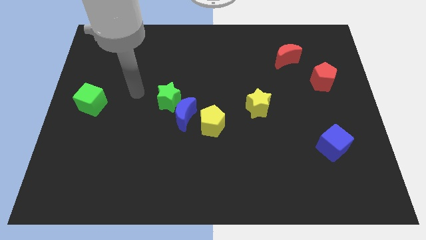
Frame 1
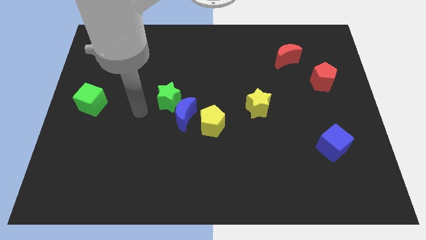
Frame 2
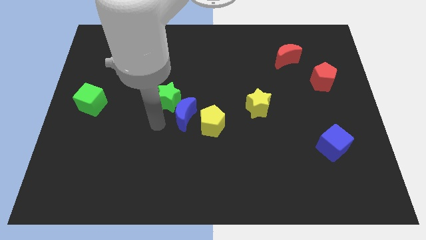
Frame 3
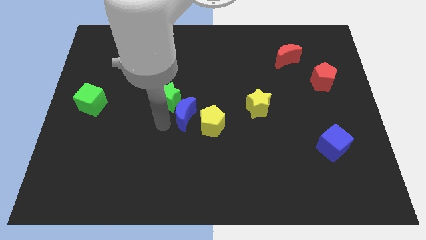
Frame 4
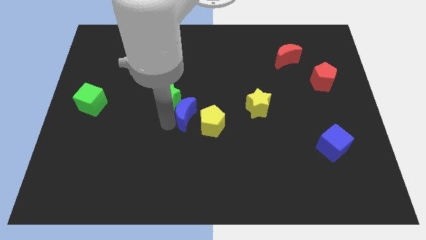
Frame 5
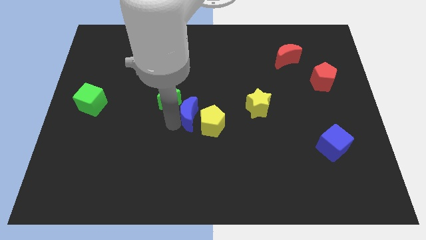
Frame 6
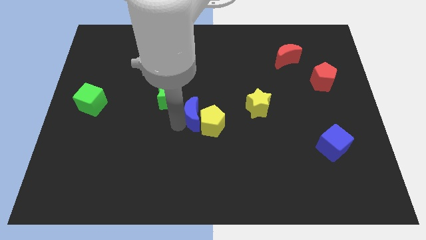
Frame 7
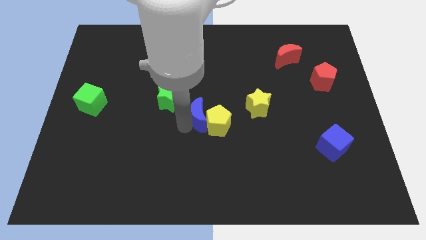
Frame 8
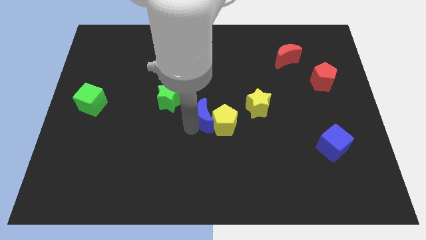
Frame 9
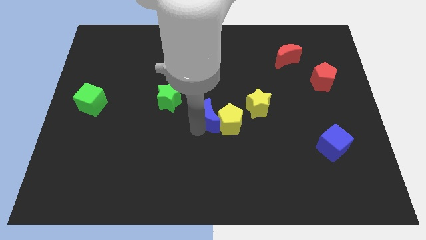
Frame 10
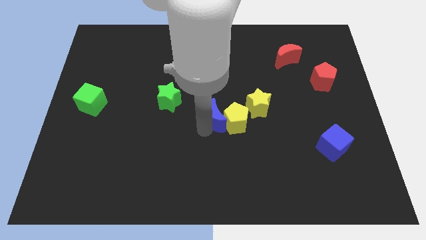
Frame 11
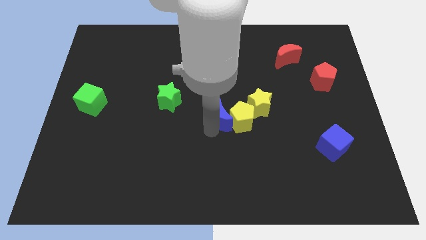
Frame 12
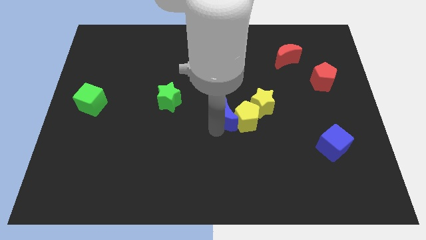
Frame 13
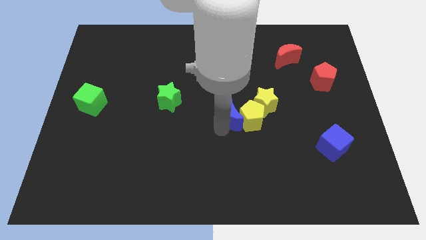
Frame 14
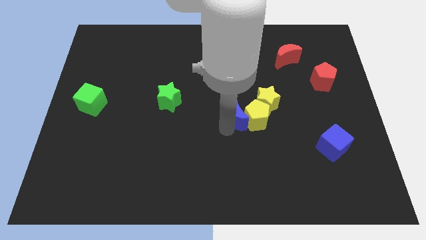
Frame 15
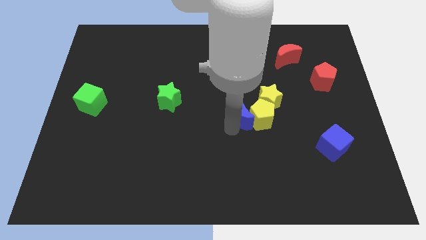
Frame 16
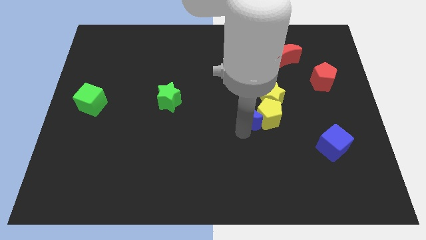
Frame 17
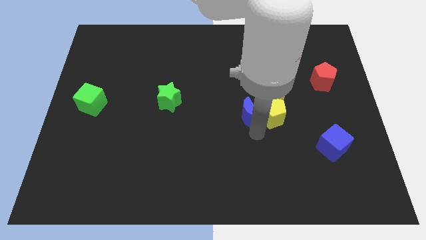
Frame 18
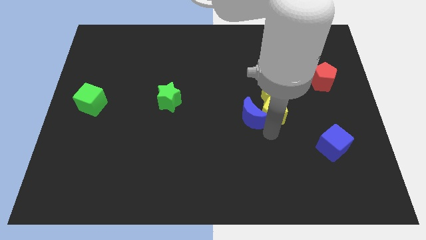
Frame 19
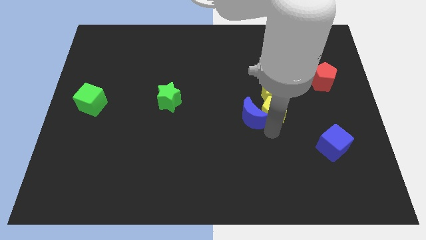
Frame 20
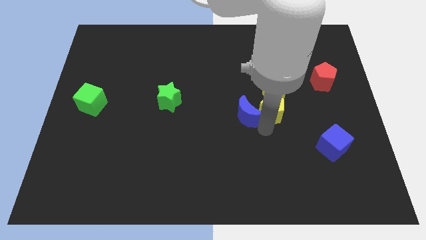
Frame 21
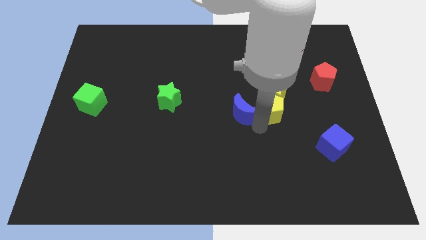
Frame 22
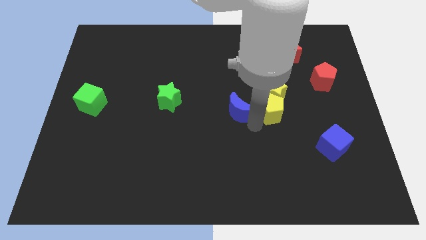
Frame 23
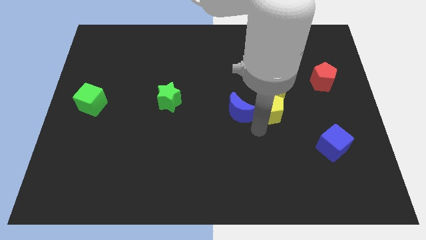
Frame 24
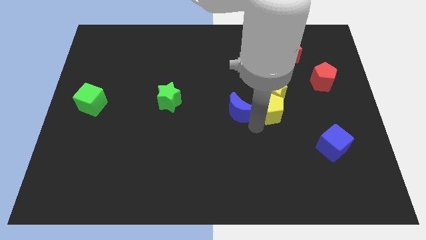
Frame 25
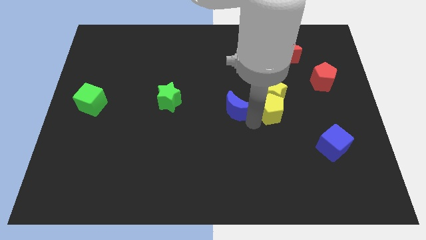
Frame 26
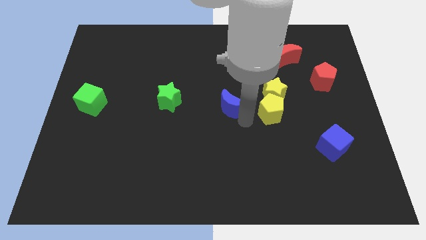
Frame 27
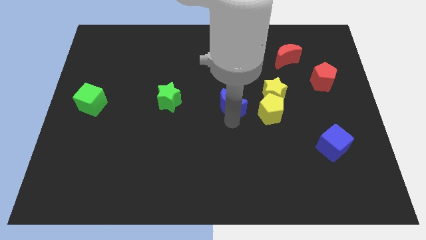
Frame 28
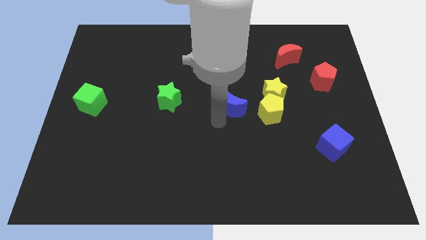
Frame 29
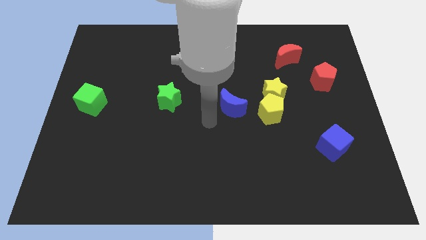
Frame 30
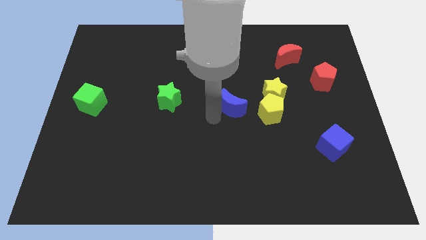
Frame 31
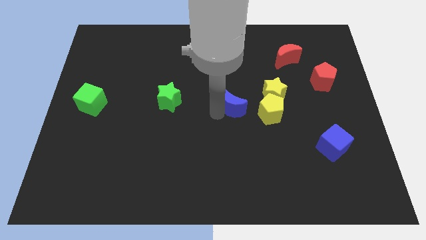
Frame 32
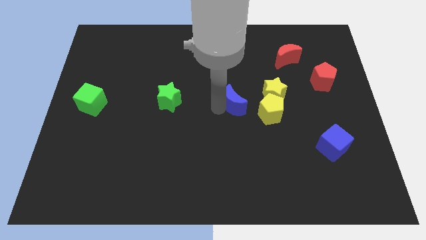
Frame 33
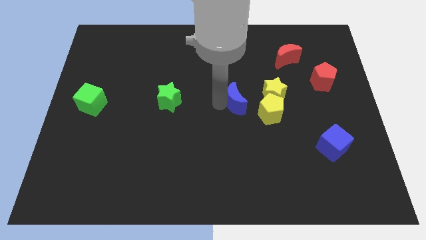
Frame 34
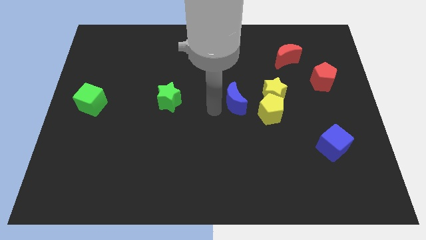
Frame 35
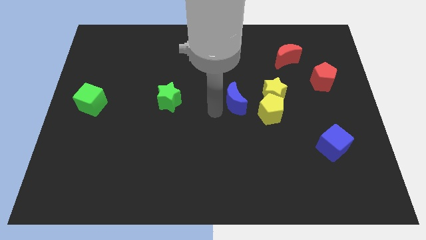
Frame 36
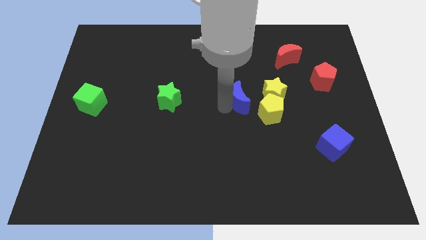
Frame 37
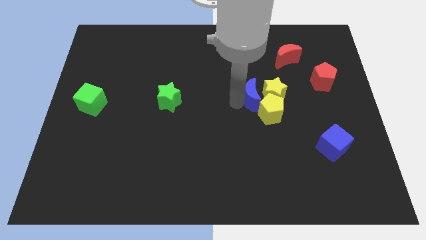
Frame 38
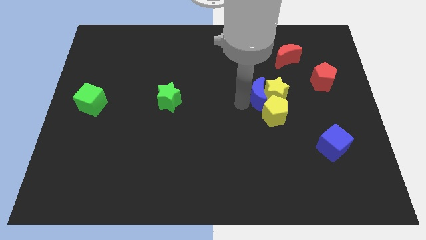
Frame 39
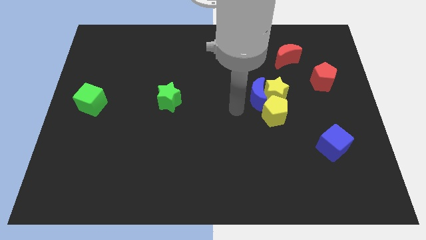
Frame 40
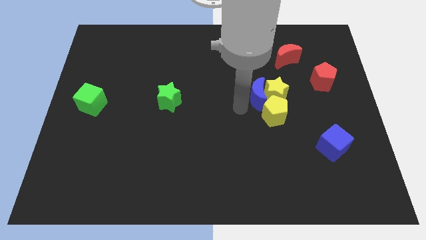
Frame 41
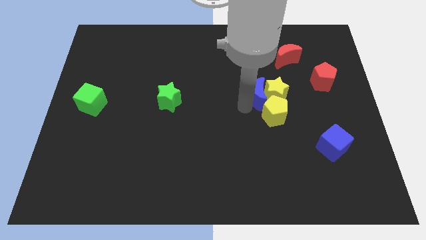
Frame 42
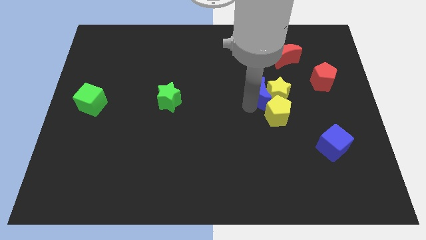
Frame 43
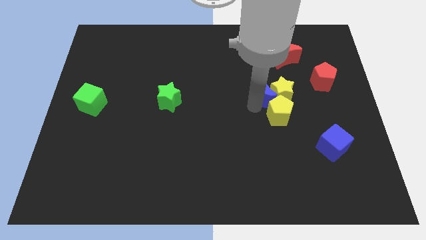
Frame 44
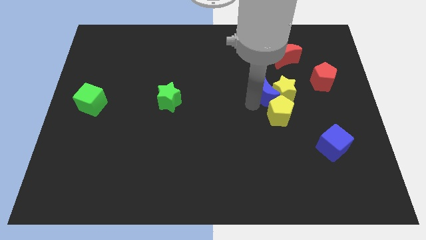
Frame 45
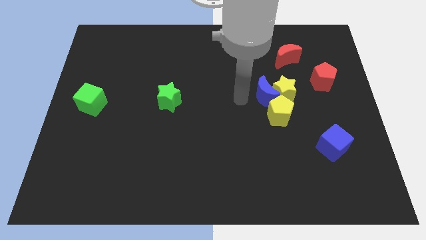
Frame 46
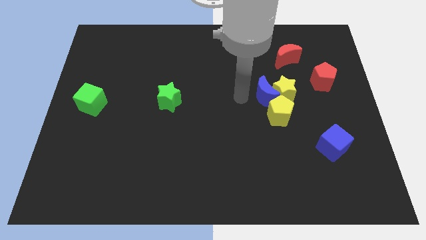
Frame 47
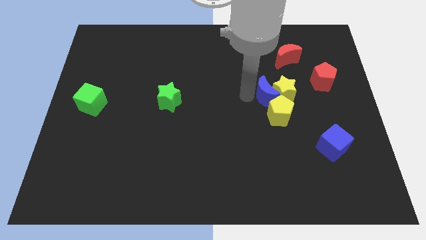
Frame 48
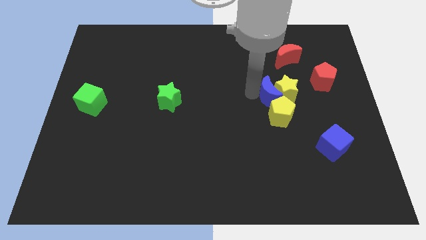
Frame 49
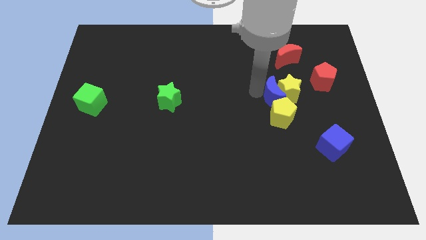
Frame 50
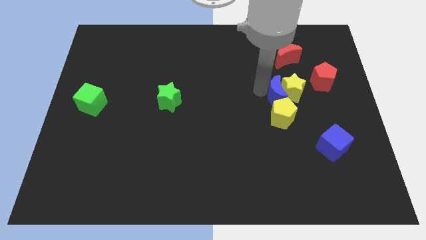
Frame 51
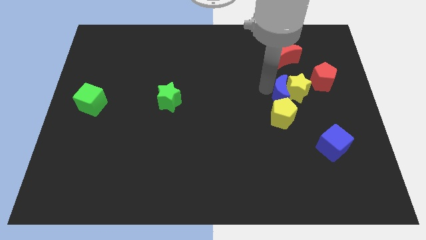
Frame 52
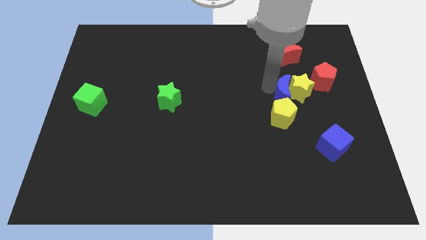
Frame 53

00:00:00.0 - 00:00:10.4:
put the blue moon to the bottom left side of the red pentagon

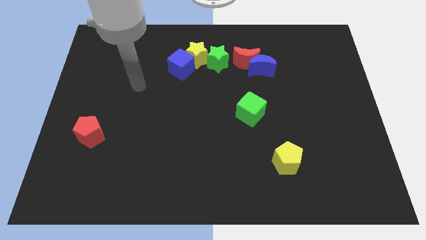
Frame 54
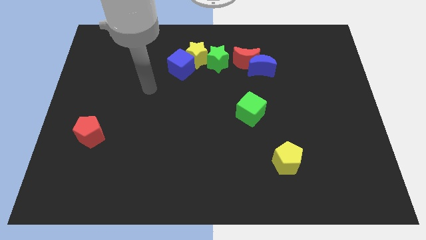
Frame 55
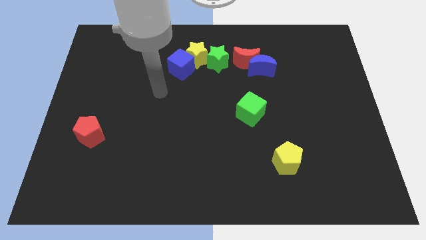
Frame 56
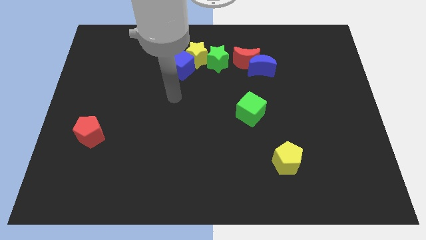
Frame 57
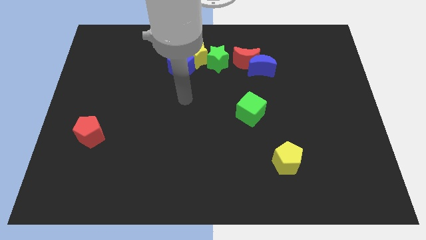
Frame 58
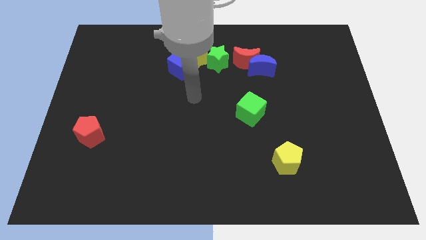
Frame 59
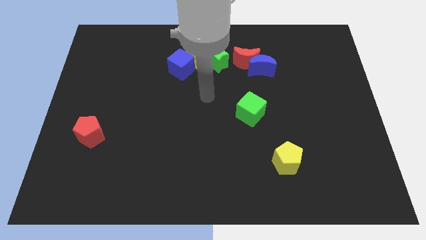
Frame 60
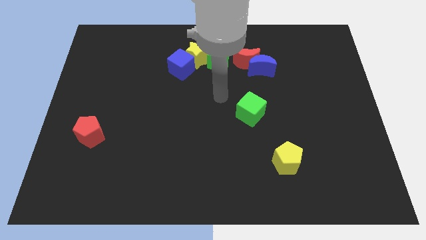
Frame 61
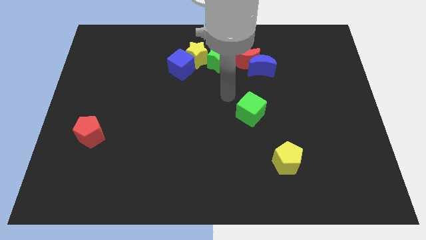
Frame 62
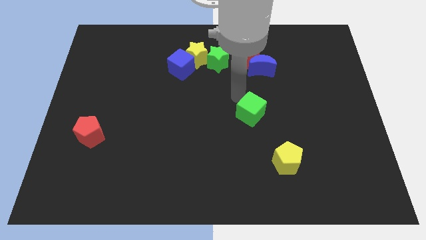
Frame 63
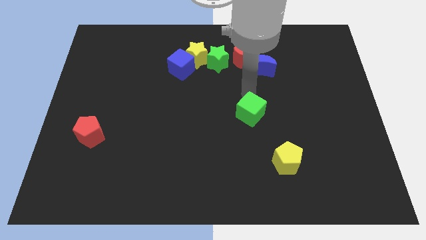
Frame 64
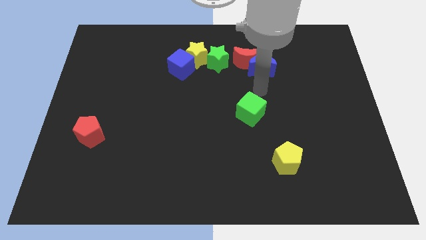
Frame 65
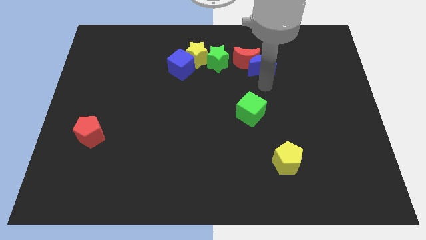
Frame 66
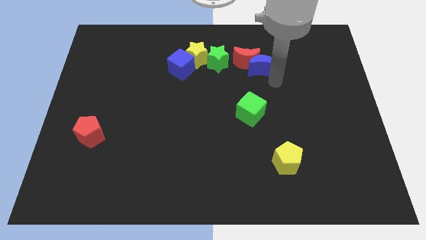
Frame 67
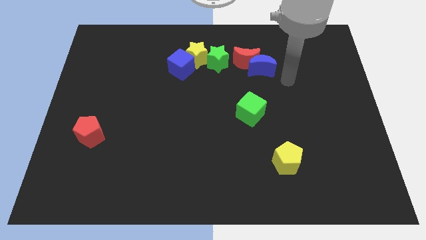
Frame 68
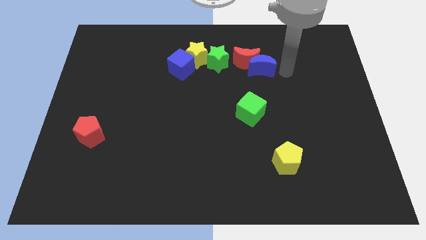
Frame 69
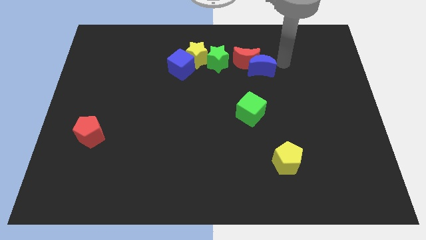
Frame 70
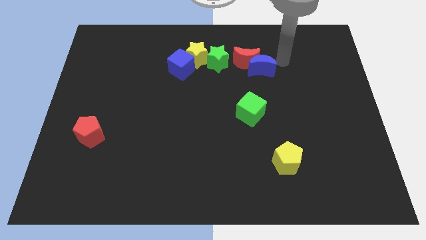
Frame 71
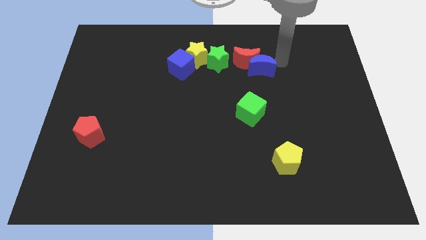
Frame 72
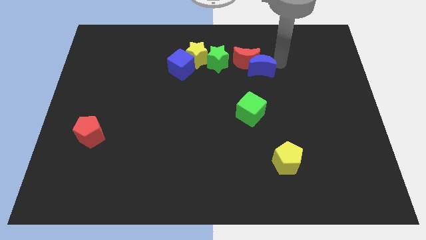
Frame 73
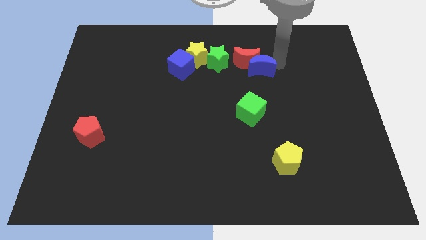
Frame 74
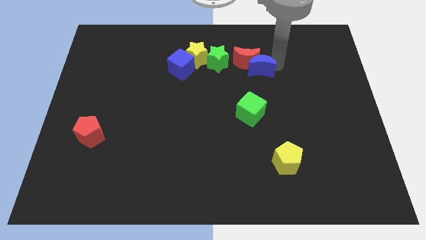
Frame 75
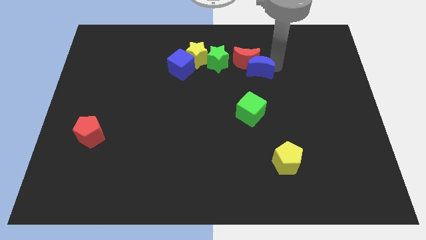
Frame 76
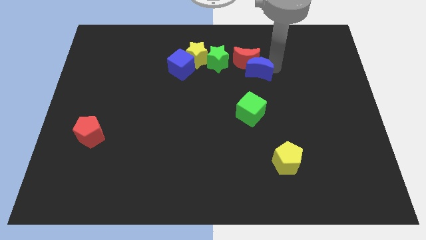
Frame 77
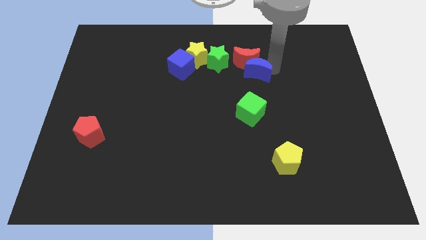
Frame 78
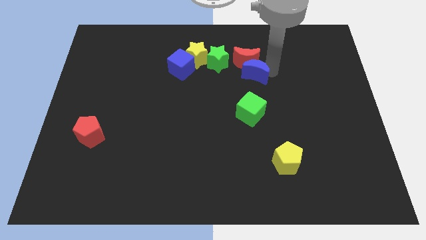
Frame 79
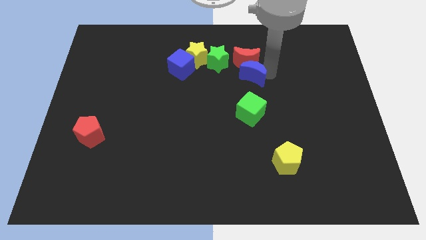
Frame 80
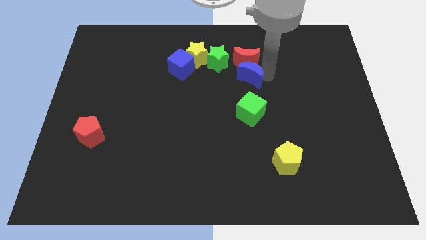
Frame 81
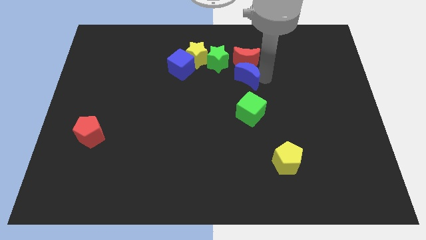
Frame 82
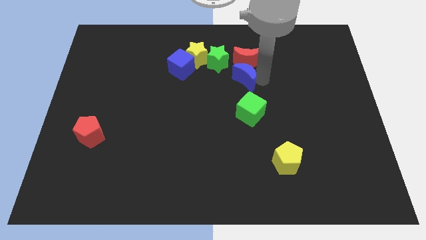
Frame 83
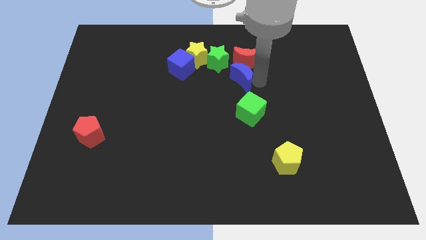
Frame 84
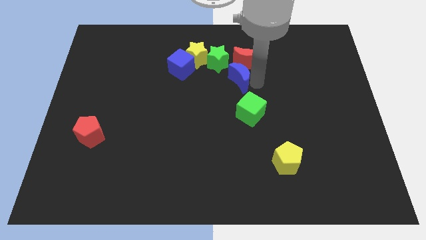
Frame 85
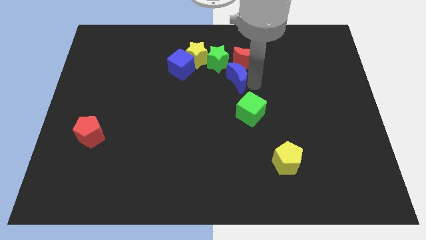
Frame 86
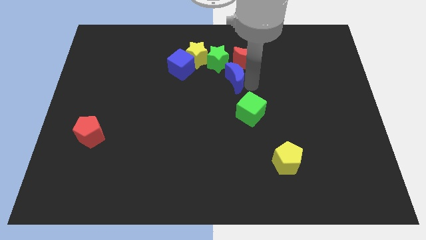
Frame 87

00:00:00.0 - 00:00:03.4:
push the blue moon diagonally down and to the right of the yellow star
